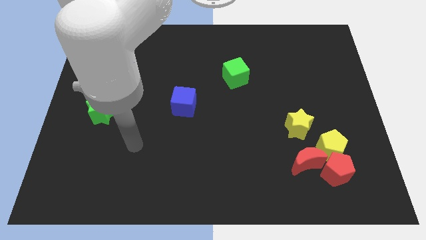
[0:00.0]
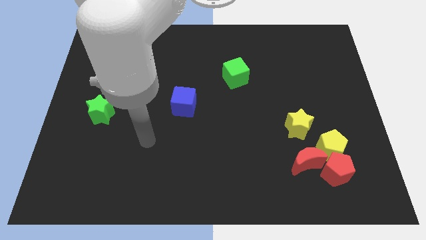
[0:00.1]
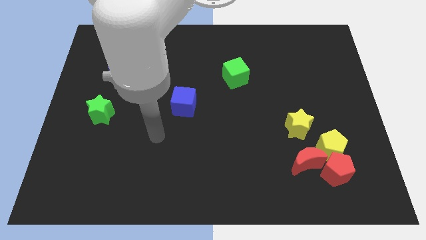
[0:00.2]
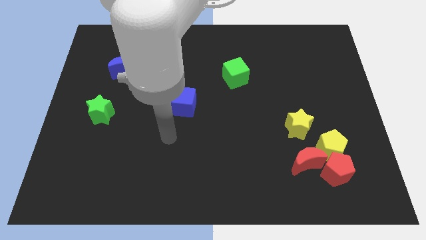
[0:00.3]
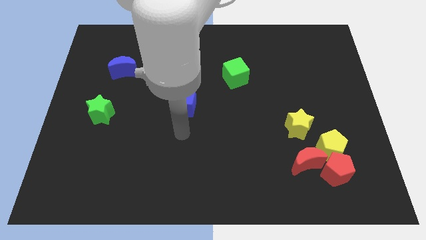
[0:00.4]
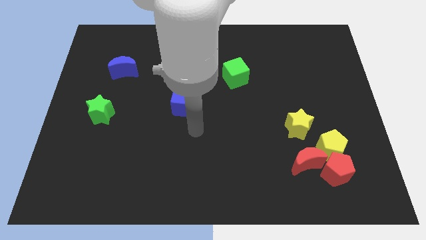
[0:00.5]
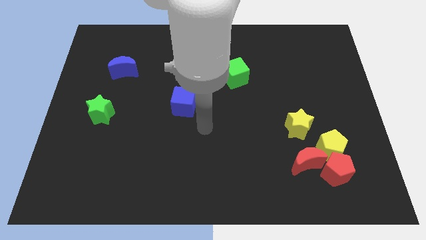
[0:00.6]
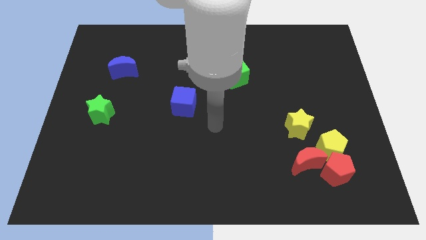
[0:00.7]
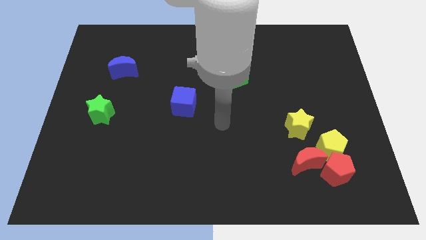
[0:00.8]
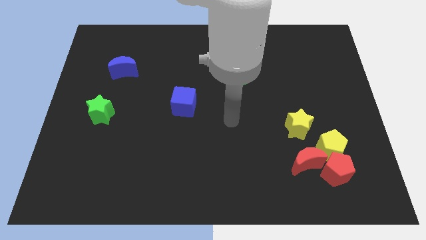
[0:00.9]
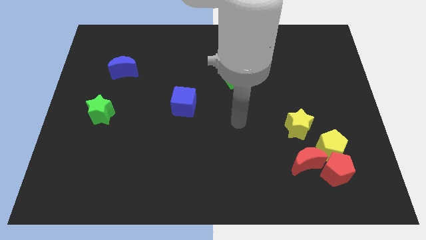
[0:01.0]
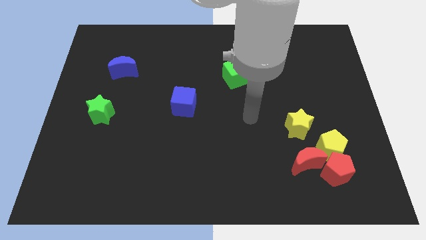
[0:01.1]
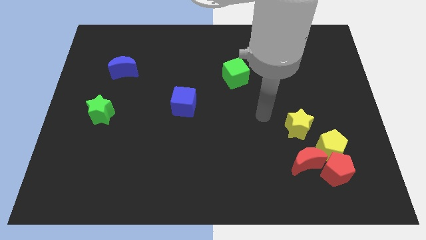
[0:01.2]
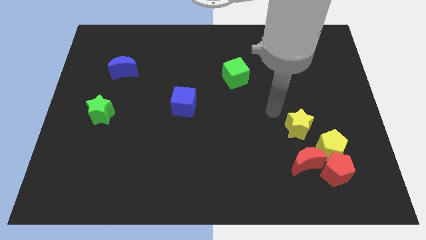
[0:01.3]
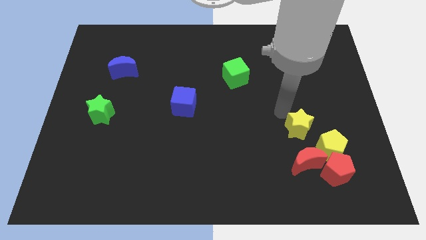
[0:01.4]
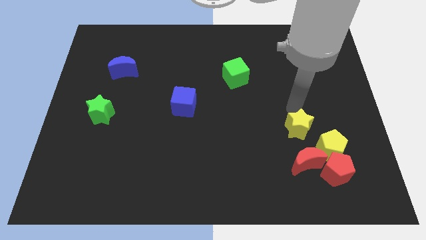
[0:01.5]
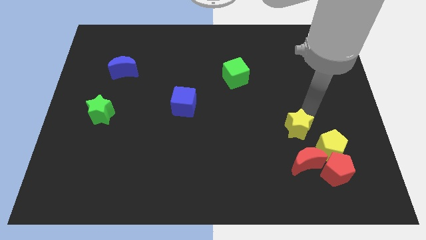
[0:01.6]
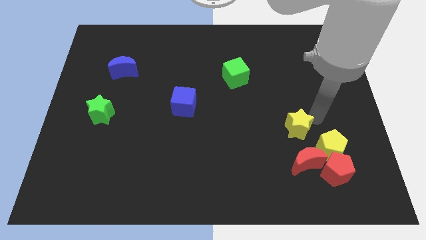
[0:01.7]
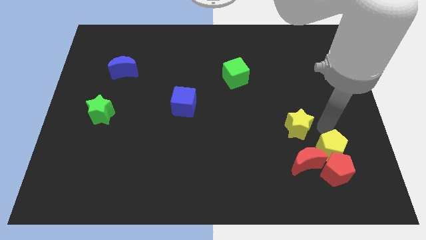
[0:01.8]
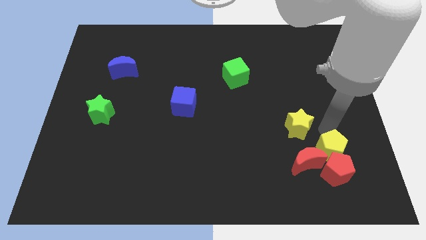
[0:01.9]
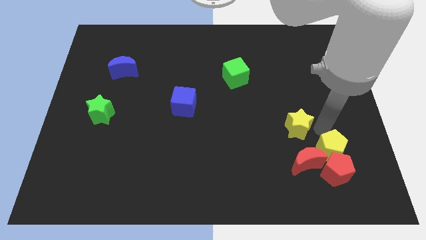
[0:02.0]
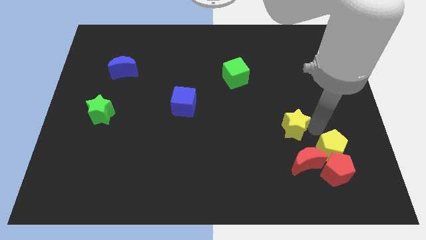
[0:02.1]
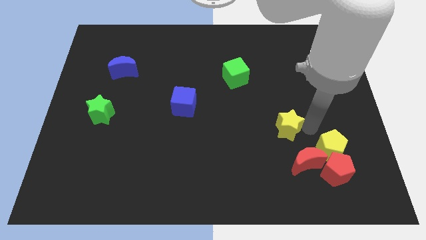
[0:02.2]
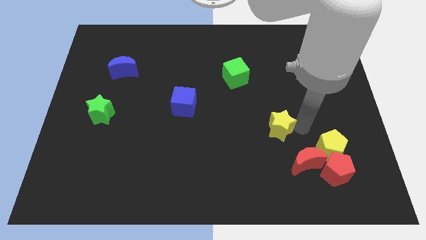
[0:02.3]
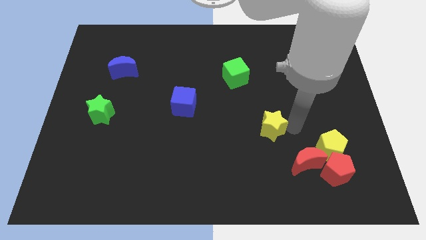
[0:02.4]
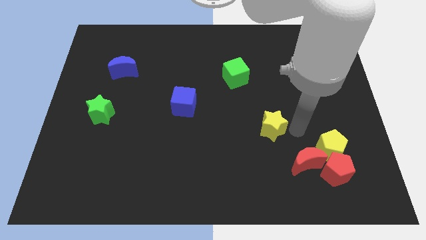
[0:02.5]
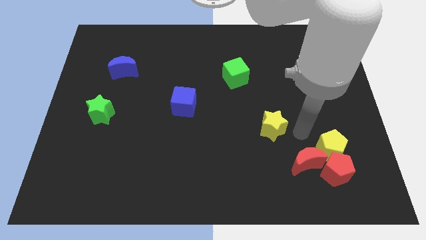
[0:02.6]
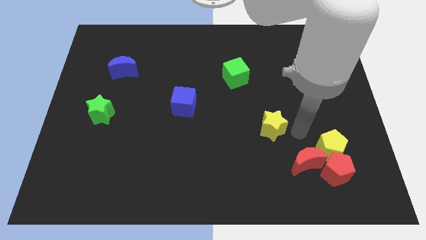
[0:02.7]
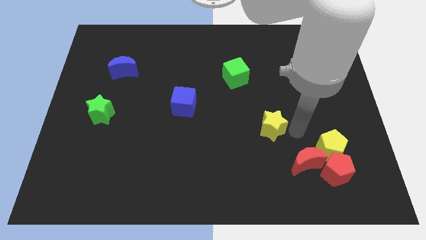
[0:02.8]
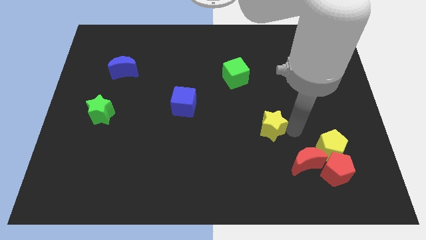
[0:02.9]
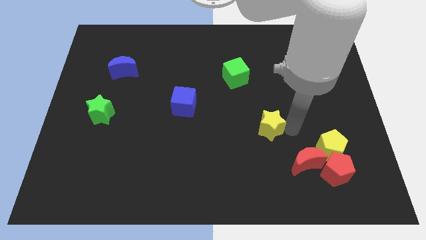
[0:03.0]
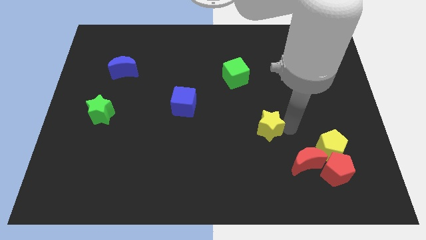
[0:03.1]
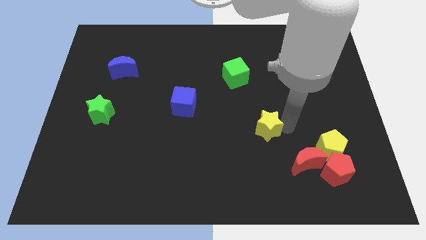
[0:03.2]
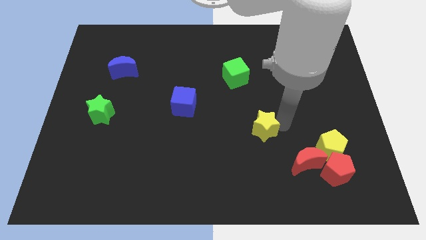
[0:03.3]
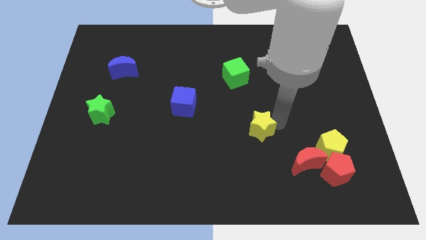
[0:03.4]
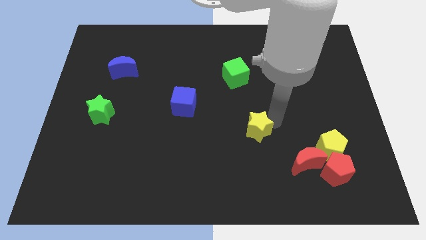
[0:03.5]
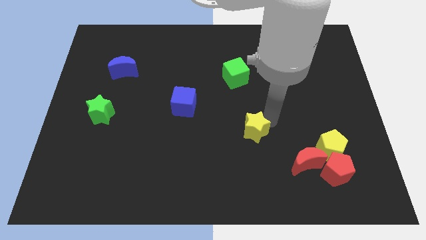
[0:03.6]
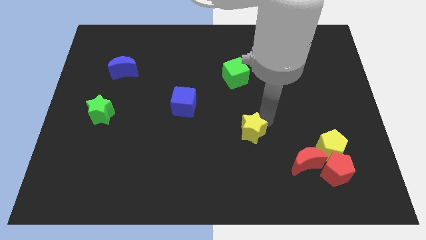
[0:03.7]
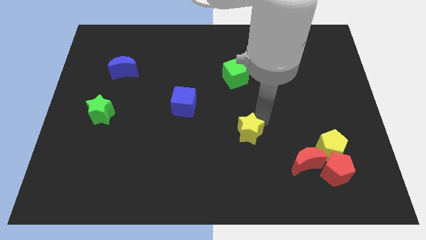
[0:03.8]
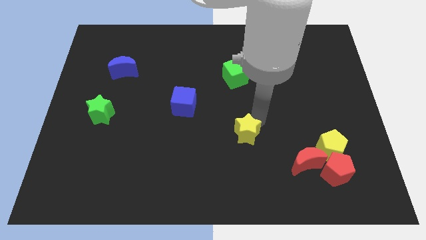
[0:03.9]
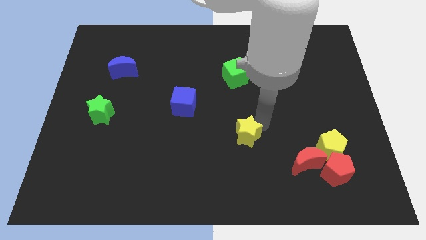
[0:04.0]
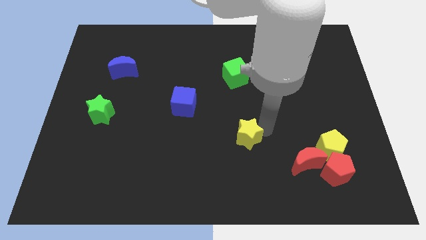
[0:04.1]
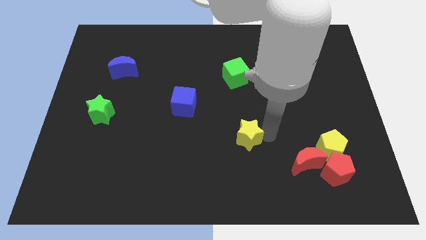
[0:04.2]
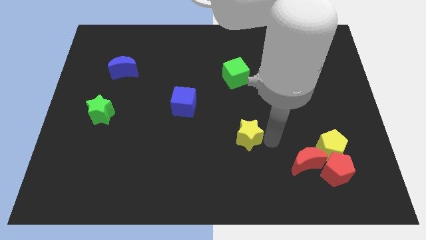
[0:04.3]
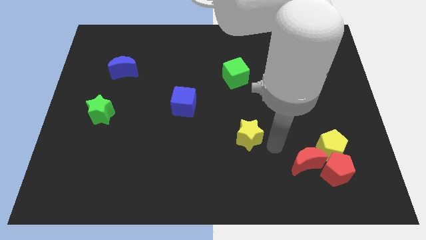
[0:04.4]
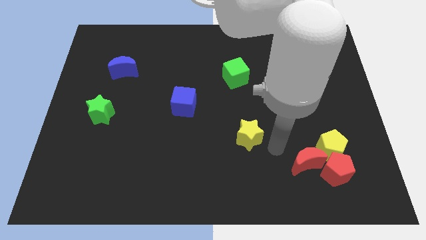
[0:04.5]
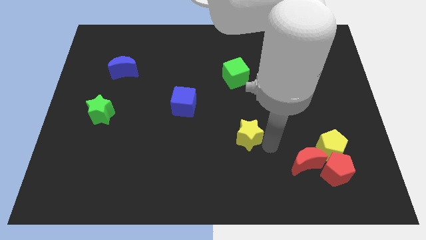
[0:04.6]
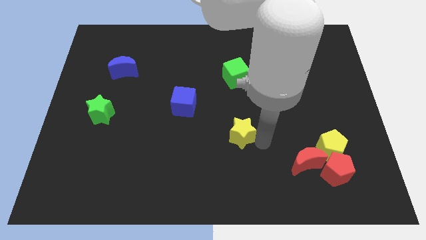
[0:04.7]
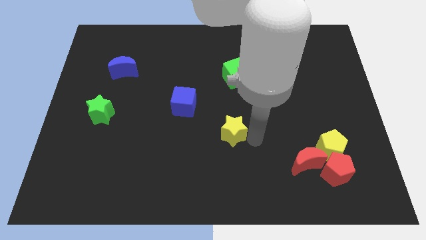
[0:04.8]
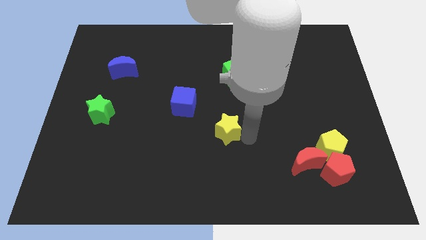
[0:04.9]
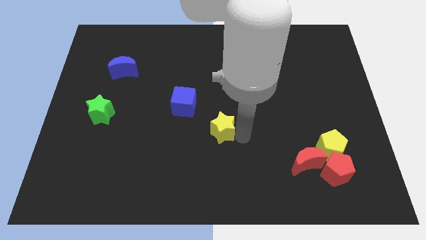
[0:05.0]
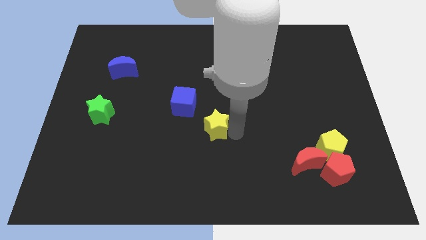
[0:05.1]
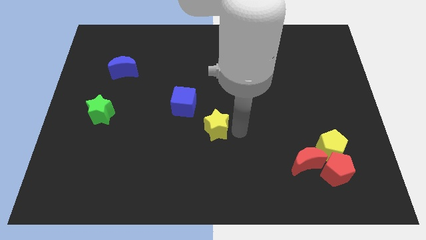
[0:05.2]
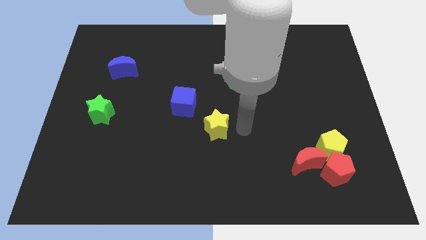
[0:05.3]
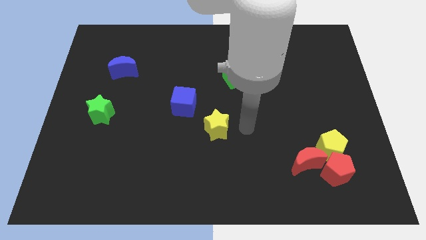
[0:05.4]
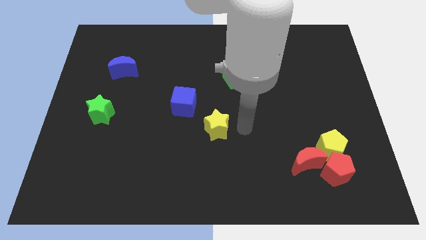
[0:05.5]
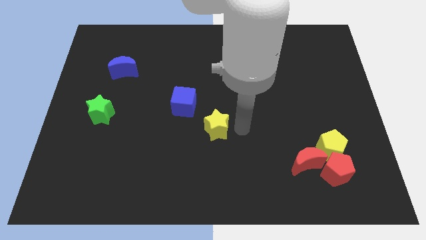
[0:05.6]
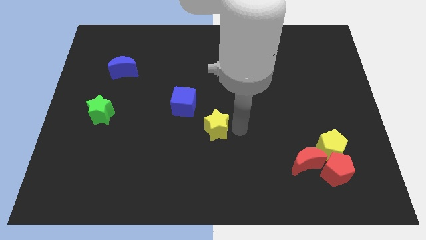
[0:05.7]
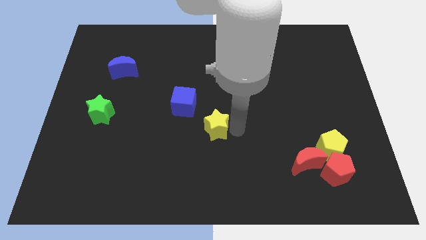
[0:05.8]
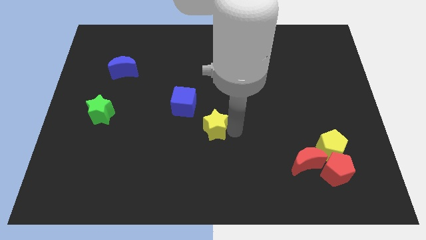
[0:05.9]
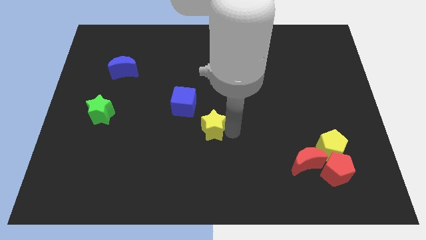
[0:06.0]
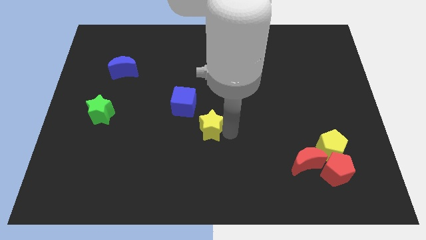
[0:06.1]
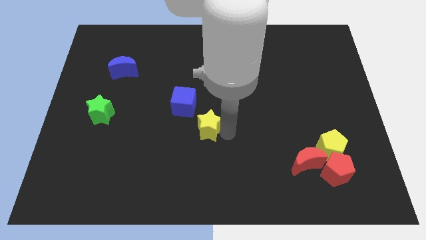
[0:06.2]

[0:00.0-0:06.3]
push the yellow star to the left

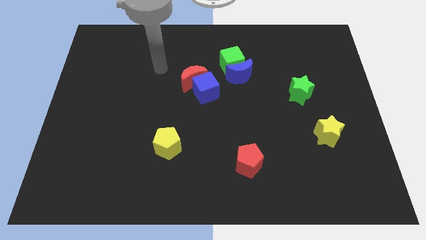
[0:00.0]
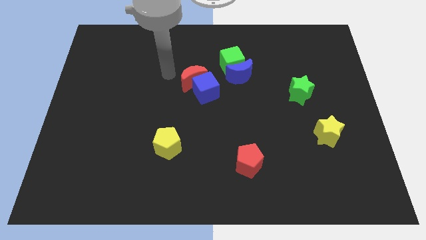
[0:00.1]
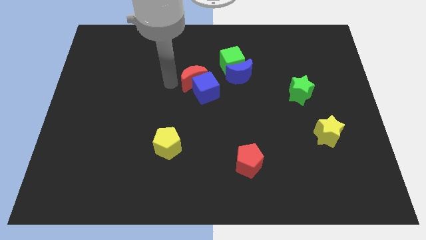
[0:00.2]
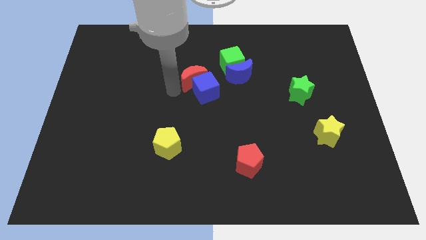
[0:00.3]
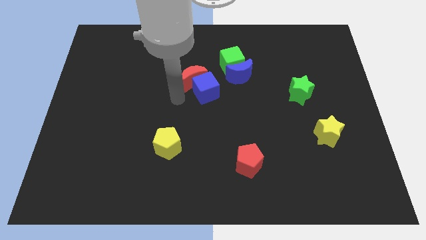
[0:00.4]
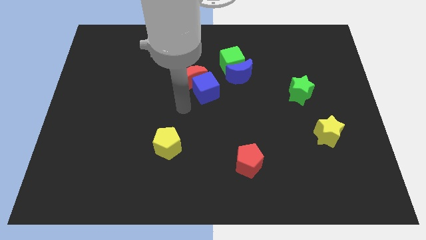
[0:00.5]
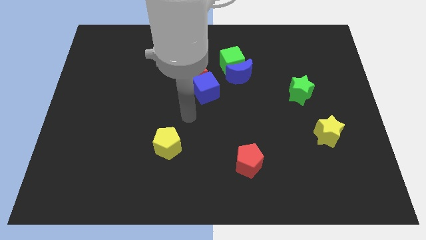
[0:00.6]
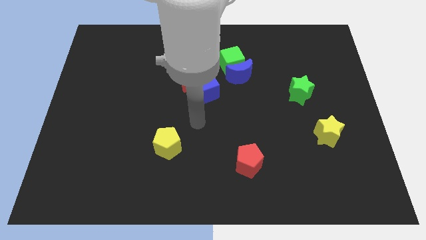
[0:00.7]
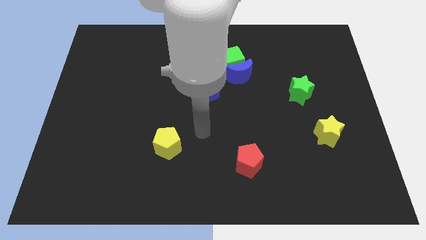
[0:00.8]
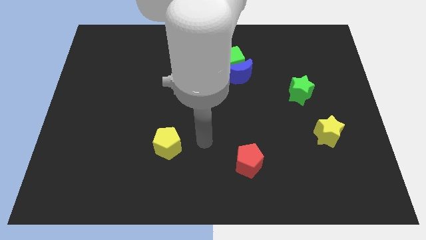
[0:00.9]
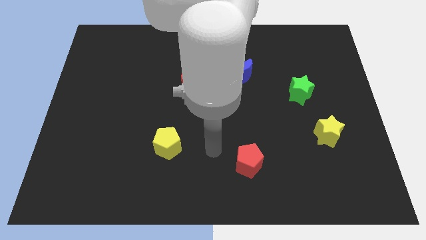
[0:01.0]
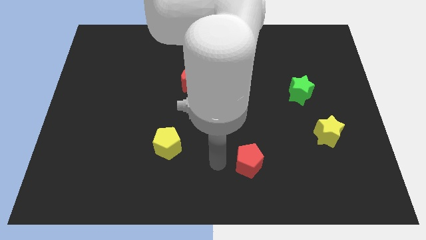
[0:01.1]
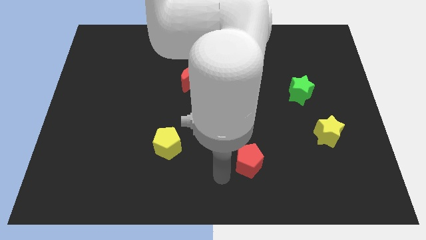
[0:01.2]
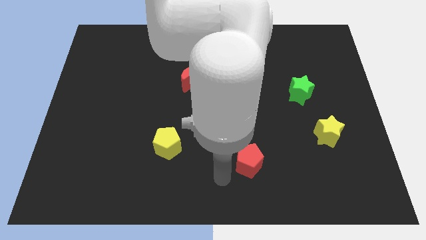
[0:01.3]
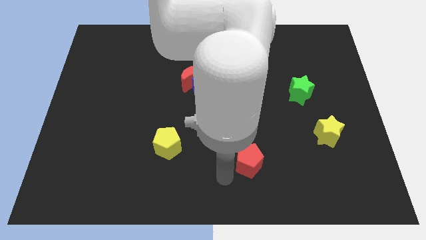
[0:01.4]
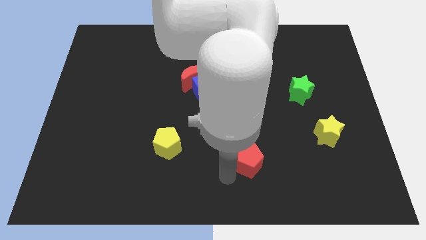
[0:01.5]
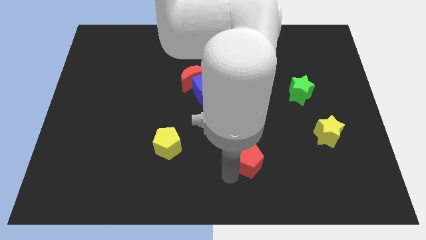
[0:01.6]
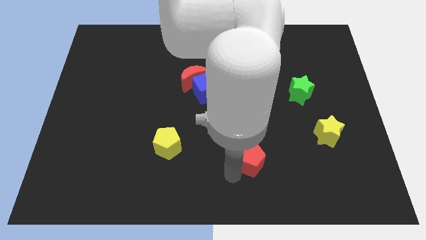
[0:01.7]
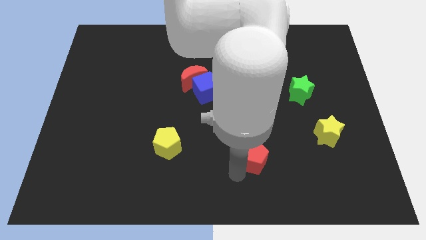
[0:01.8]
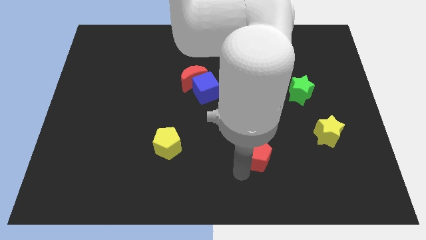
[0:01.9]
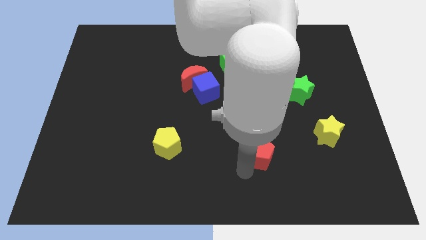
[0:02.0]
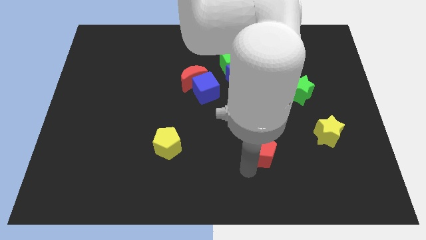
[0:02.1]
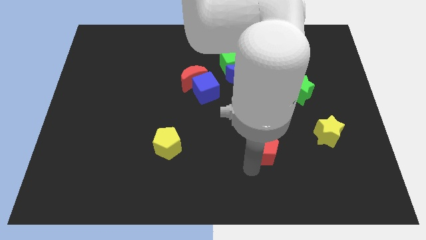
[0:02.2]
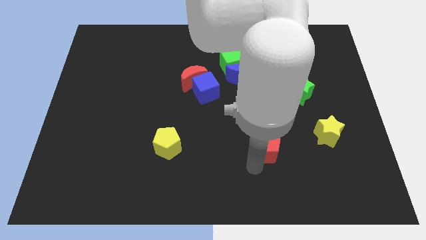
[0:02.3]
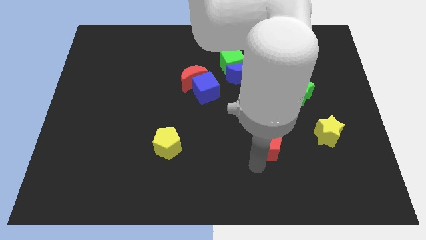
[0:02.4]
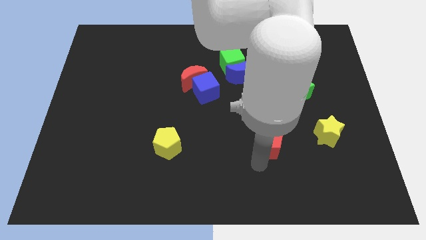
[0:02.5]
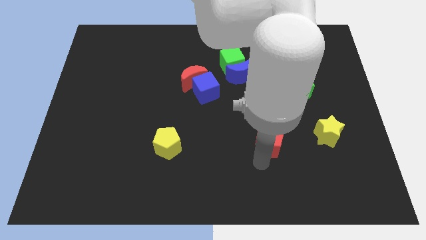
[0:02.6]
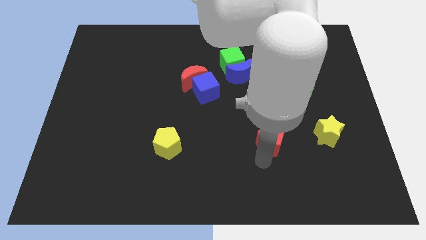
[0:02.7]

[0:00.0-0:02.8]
slightly push the red pentagon diagonally upwards and right
